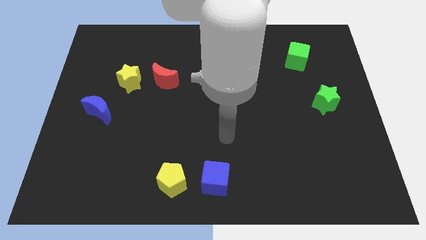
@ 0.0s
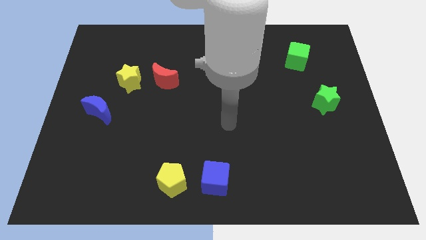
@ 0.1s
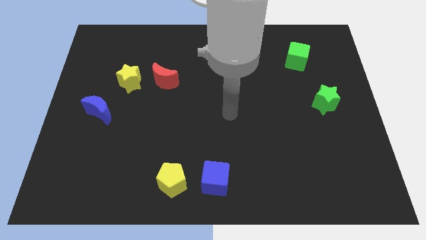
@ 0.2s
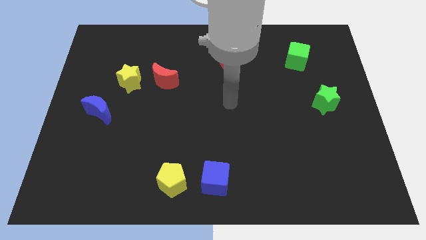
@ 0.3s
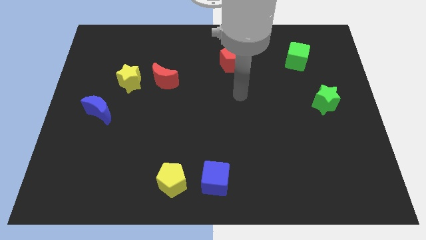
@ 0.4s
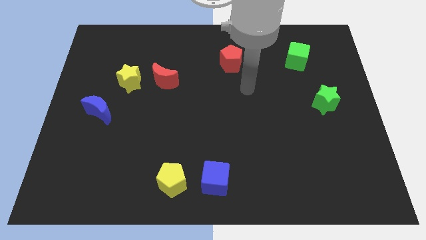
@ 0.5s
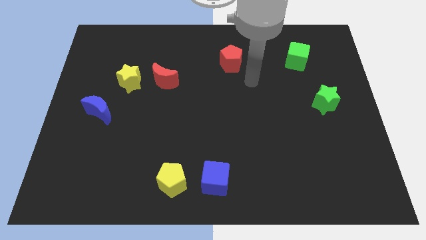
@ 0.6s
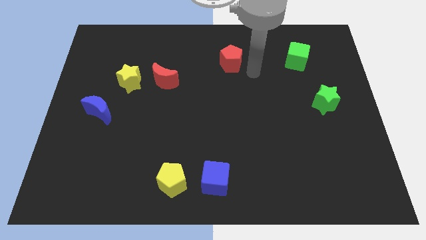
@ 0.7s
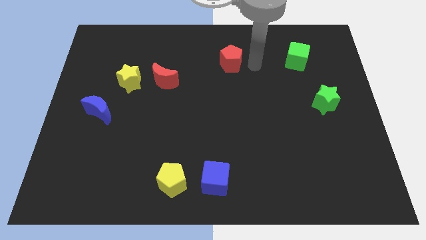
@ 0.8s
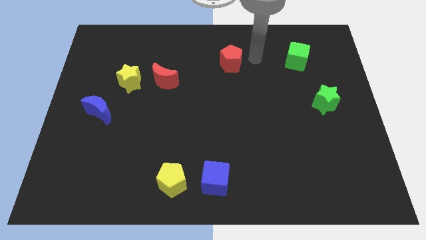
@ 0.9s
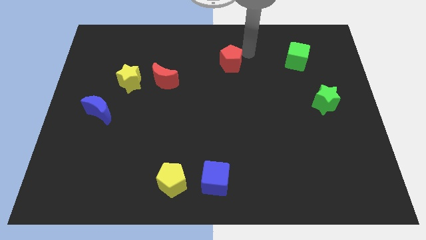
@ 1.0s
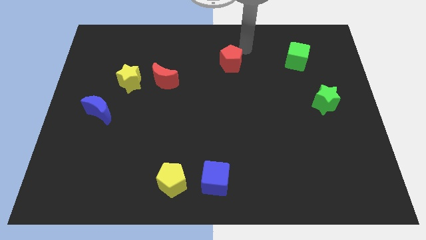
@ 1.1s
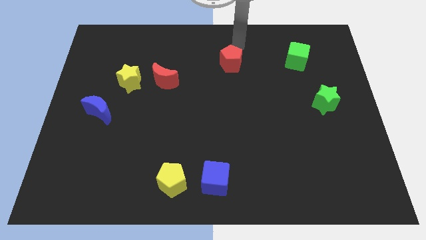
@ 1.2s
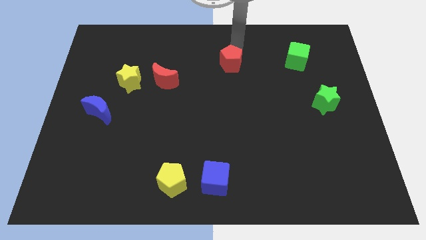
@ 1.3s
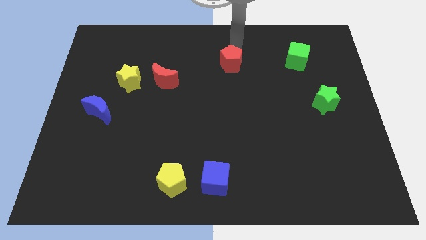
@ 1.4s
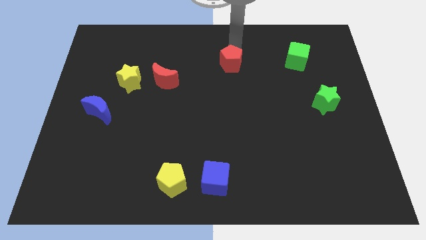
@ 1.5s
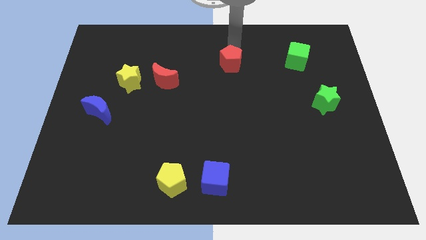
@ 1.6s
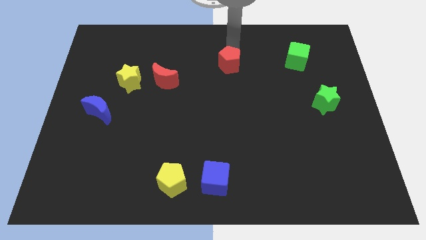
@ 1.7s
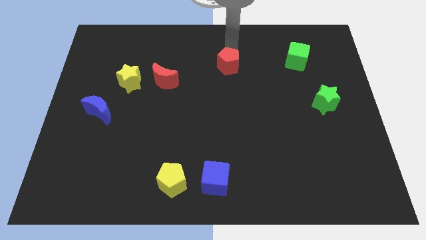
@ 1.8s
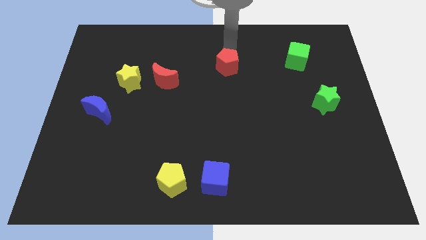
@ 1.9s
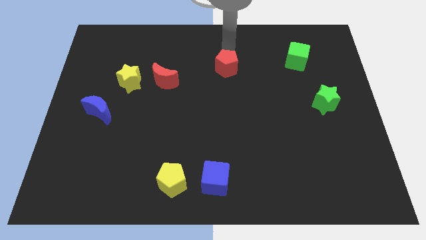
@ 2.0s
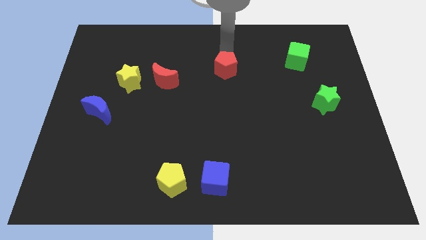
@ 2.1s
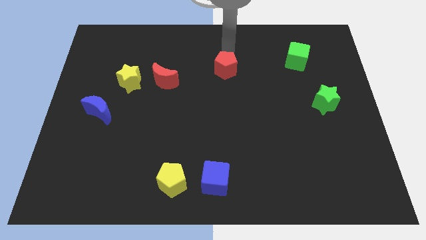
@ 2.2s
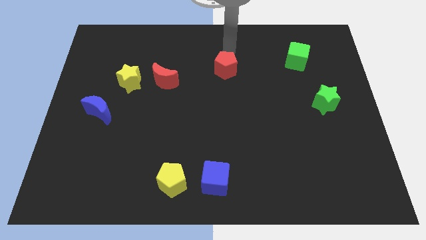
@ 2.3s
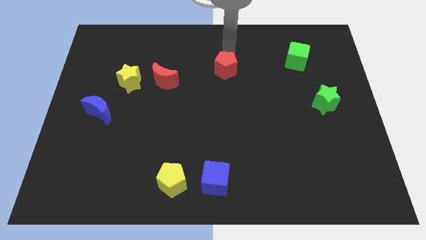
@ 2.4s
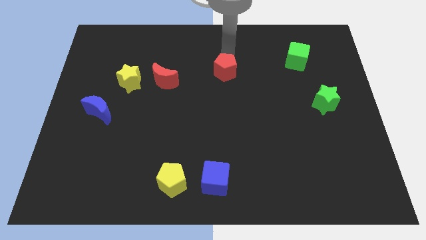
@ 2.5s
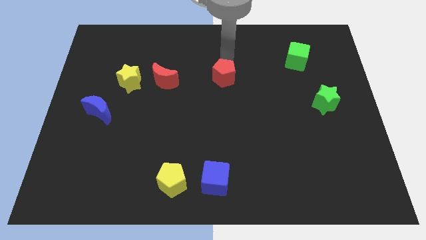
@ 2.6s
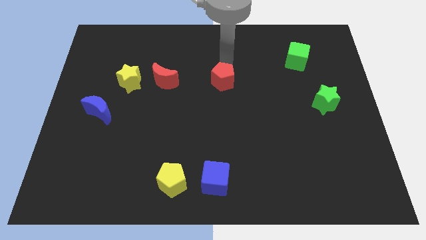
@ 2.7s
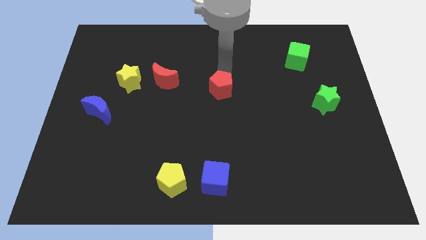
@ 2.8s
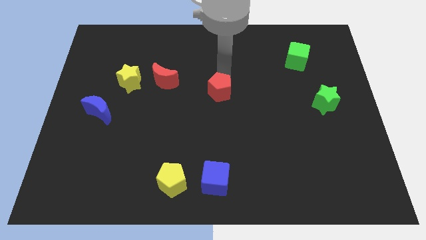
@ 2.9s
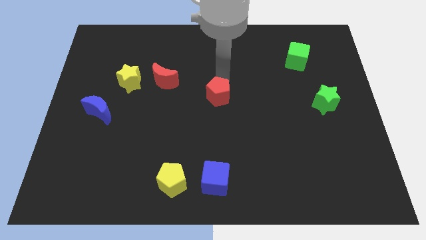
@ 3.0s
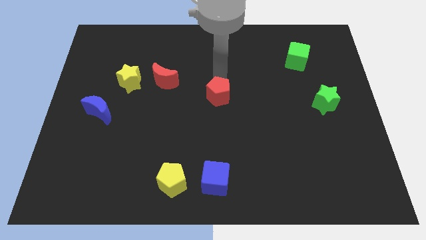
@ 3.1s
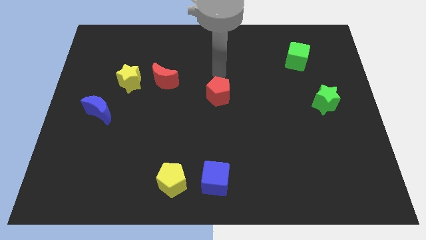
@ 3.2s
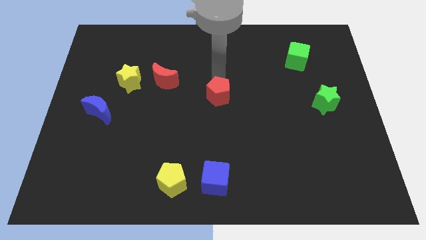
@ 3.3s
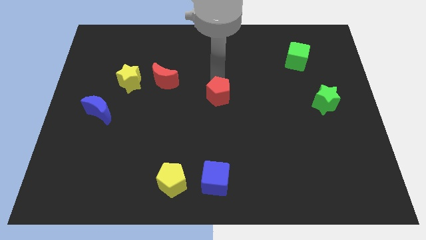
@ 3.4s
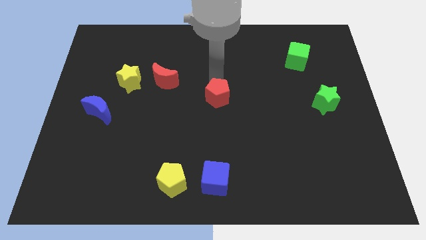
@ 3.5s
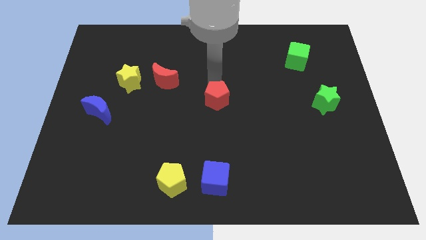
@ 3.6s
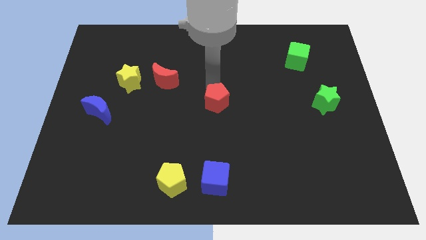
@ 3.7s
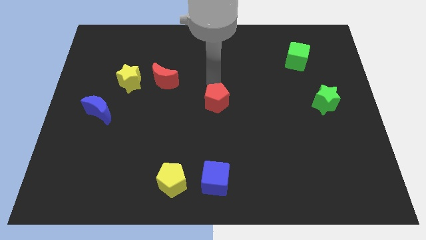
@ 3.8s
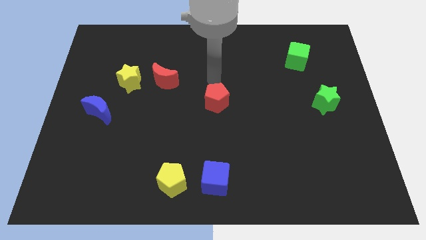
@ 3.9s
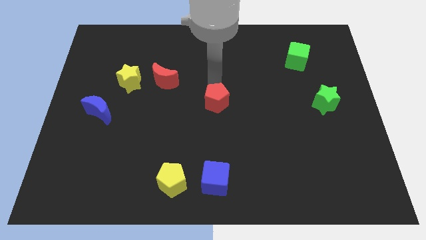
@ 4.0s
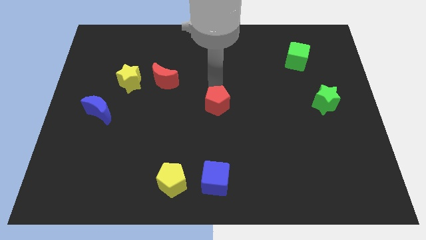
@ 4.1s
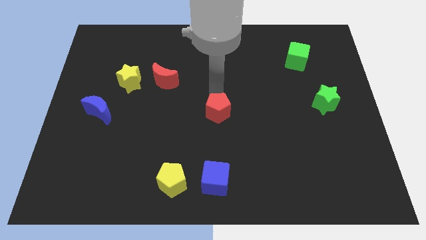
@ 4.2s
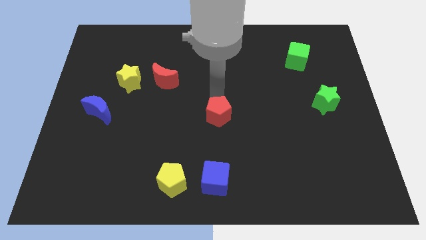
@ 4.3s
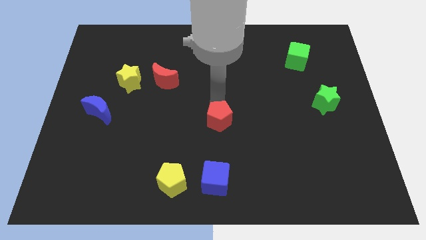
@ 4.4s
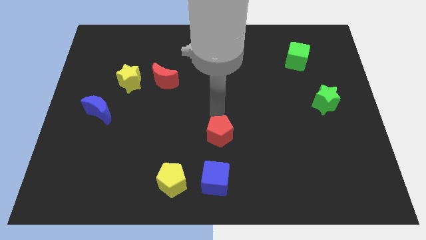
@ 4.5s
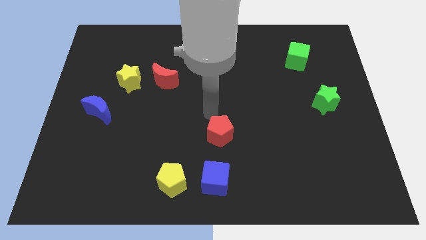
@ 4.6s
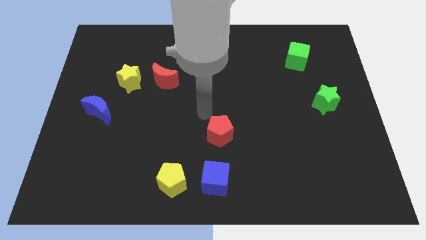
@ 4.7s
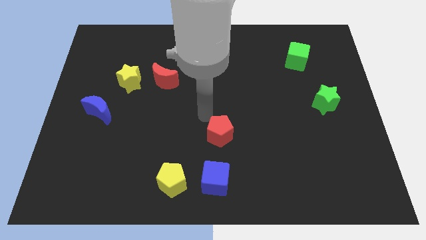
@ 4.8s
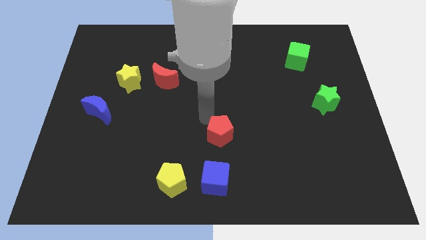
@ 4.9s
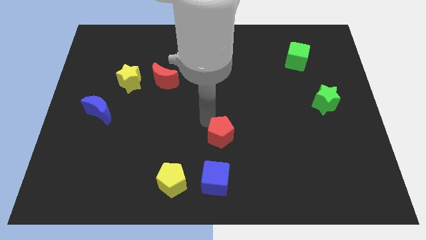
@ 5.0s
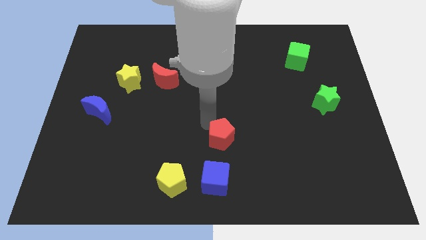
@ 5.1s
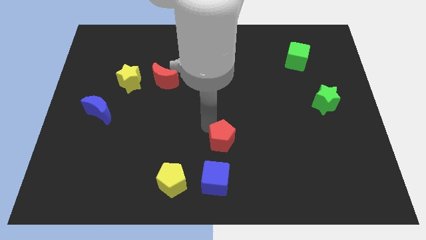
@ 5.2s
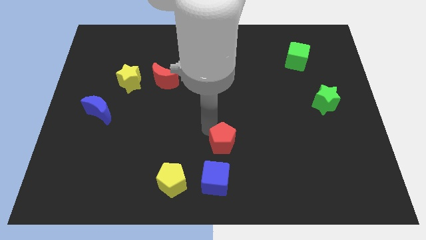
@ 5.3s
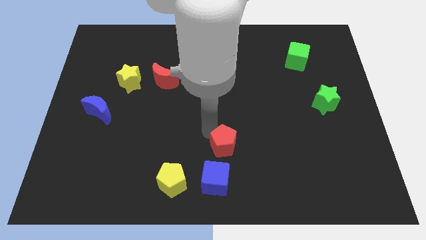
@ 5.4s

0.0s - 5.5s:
put the red pentagon to the top right of the blue cube

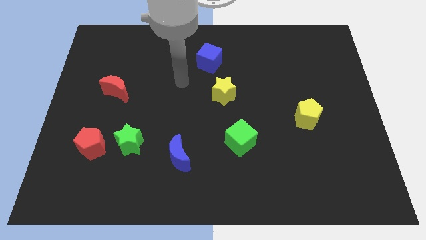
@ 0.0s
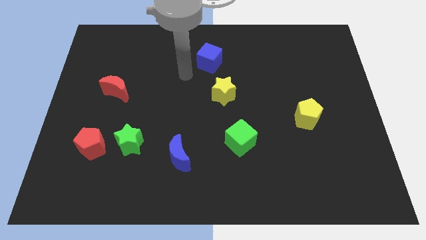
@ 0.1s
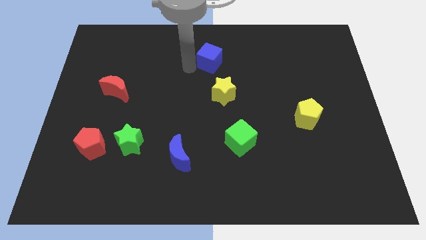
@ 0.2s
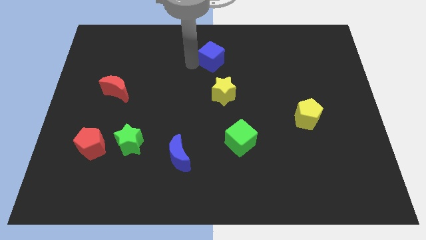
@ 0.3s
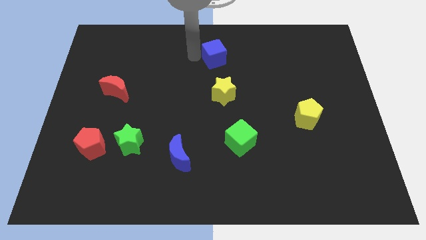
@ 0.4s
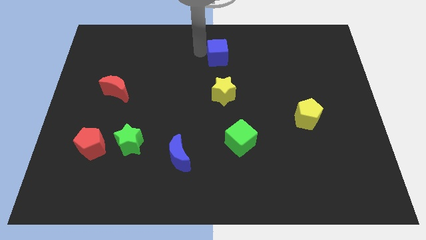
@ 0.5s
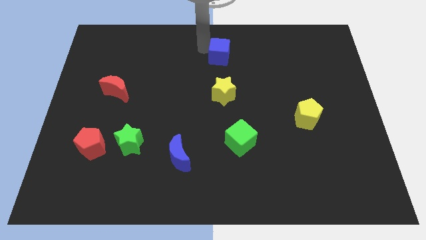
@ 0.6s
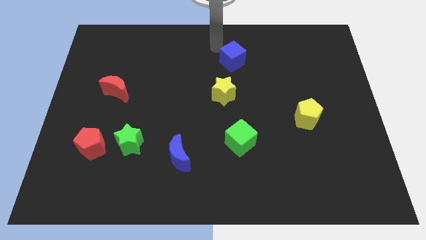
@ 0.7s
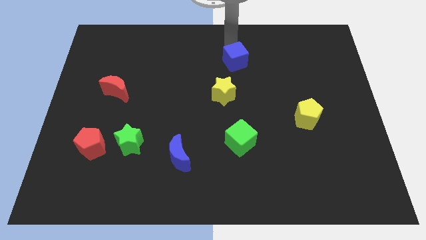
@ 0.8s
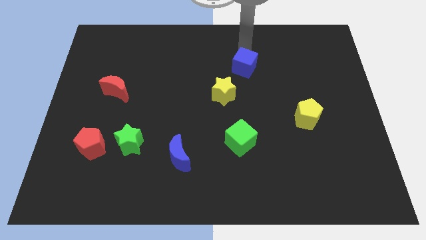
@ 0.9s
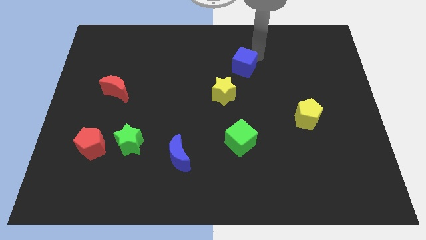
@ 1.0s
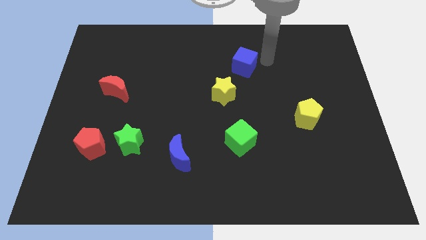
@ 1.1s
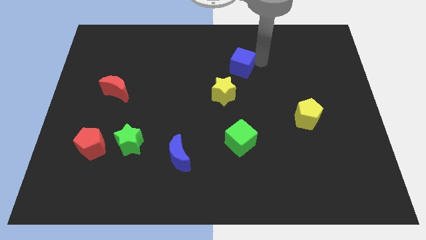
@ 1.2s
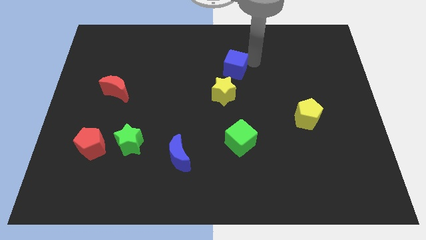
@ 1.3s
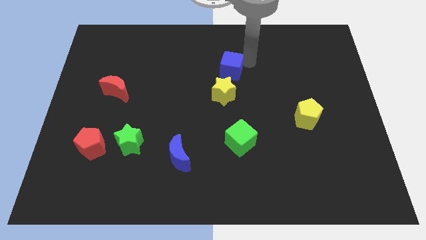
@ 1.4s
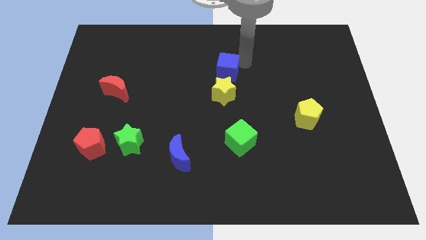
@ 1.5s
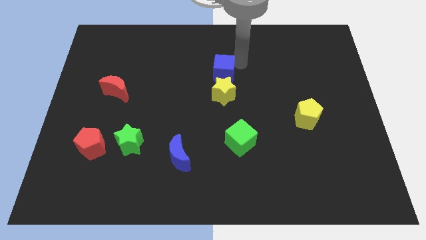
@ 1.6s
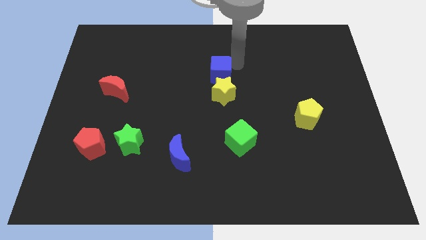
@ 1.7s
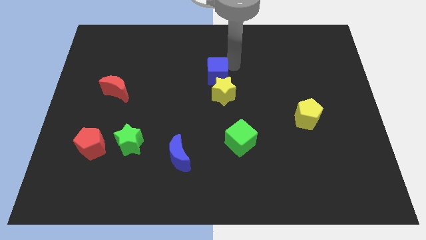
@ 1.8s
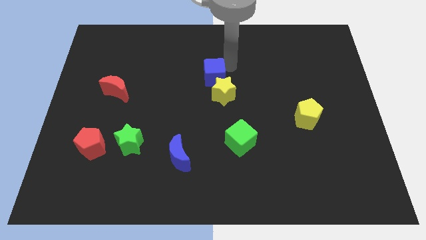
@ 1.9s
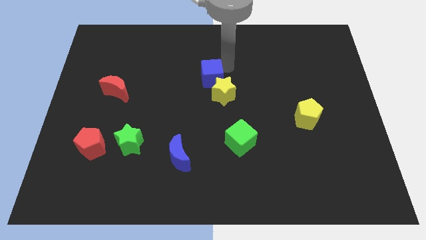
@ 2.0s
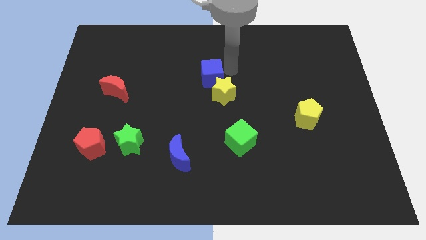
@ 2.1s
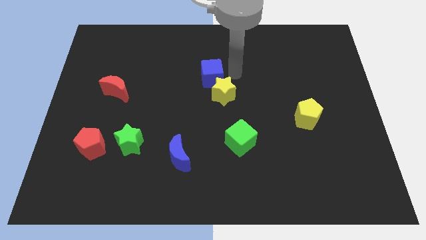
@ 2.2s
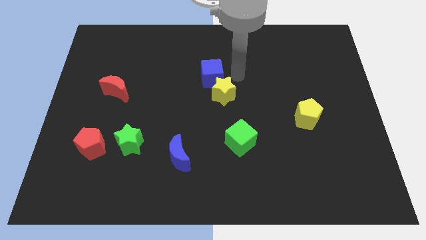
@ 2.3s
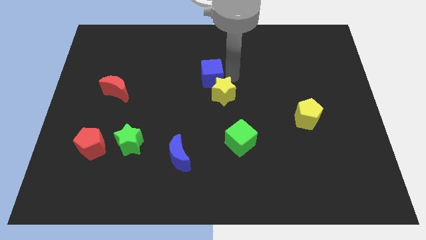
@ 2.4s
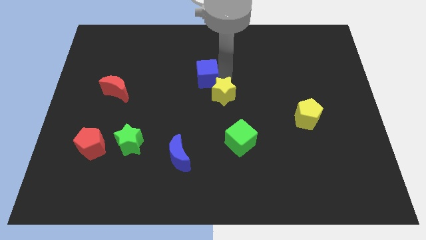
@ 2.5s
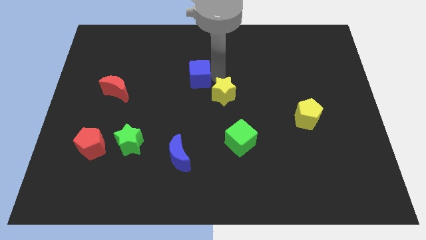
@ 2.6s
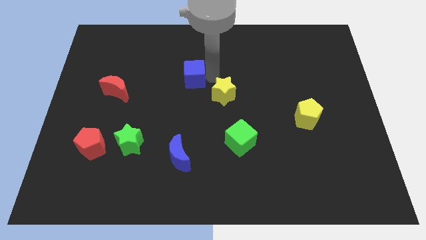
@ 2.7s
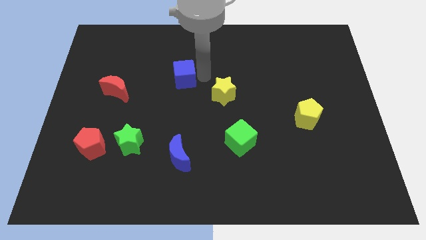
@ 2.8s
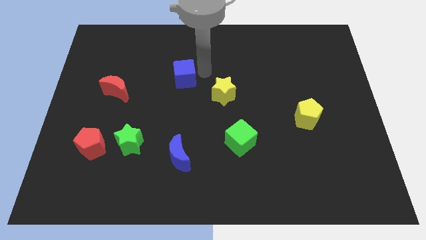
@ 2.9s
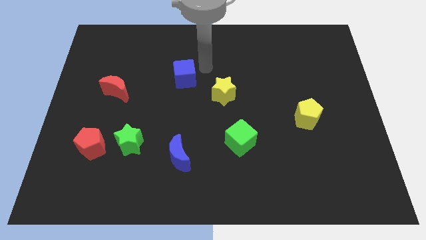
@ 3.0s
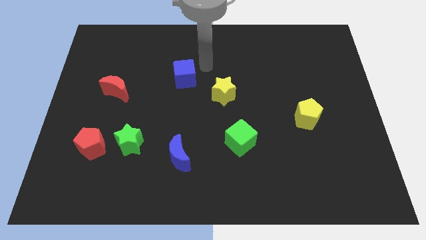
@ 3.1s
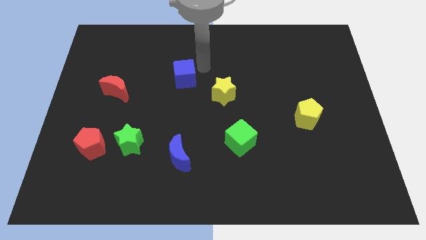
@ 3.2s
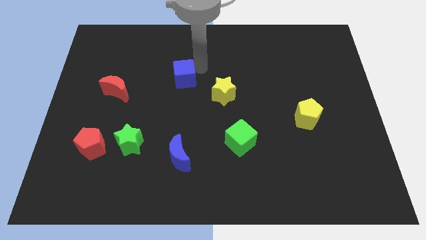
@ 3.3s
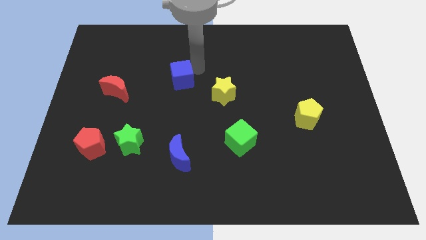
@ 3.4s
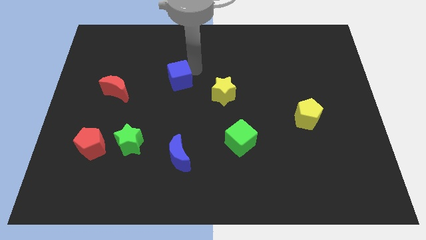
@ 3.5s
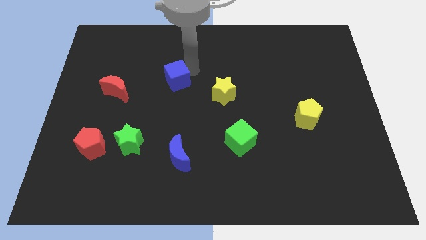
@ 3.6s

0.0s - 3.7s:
put the blue cube to the right of the red moon
